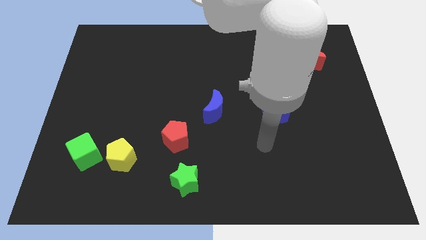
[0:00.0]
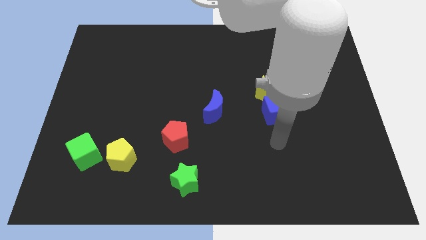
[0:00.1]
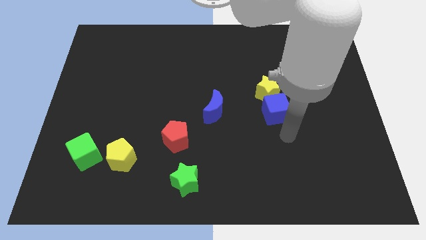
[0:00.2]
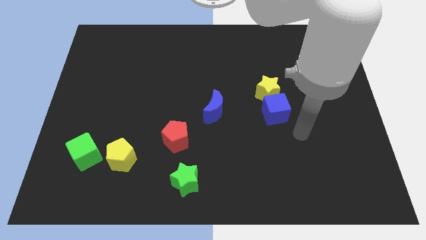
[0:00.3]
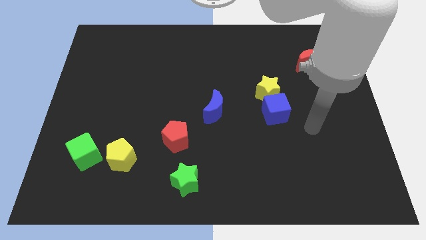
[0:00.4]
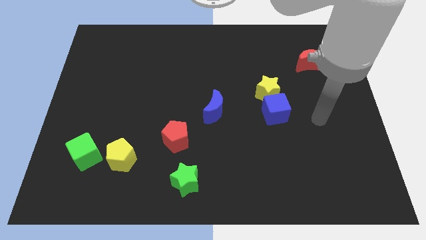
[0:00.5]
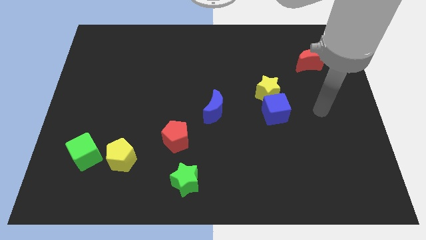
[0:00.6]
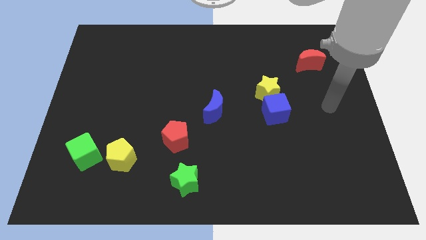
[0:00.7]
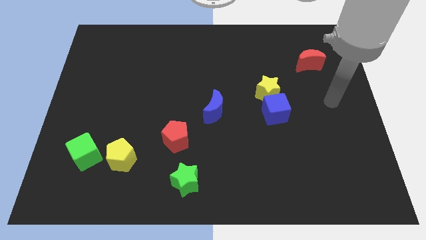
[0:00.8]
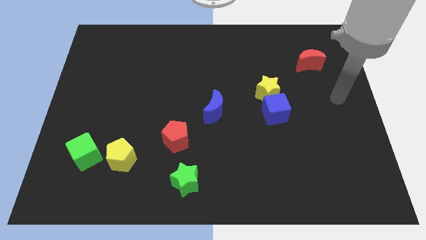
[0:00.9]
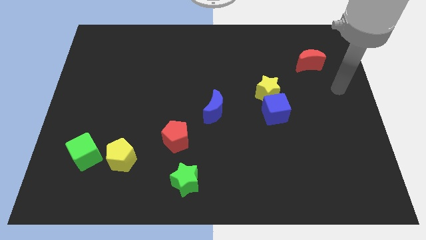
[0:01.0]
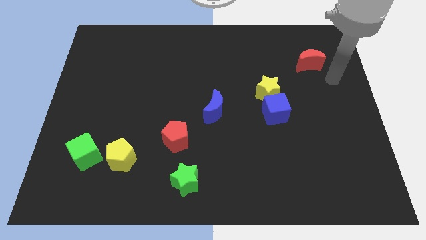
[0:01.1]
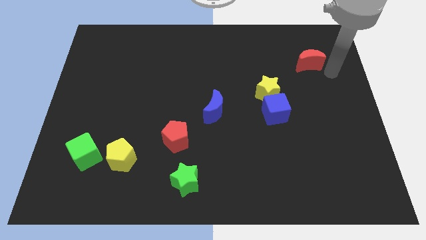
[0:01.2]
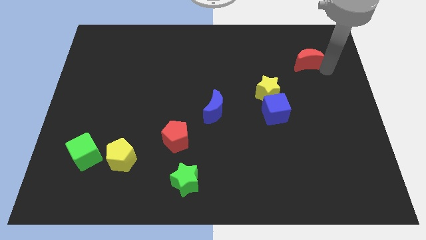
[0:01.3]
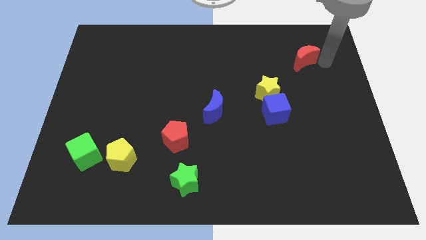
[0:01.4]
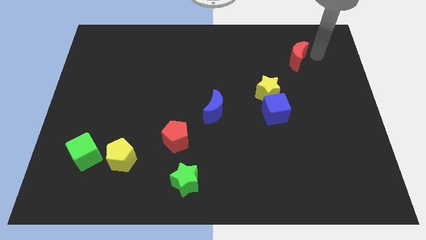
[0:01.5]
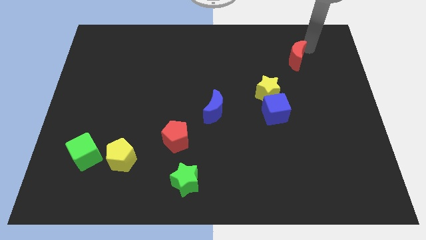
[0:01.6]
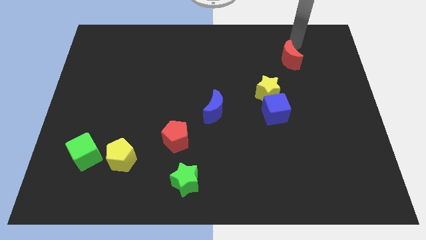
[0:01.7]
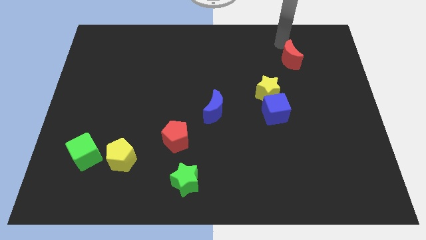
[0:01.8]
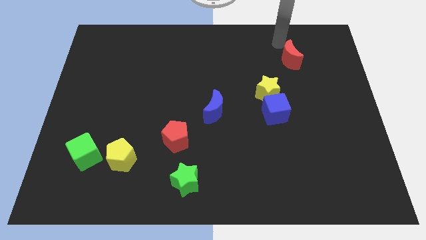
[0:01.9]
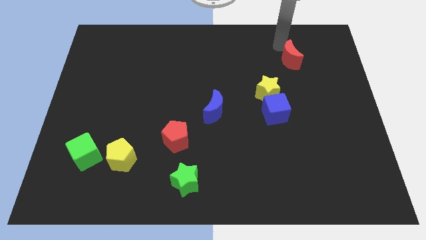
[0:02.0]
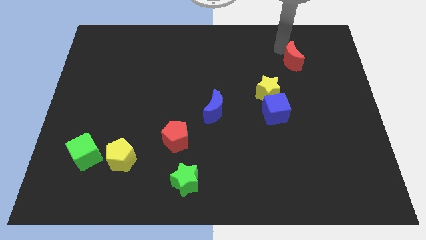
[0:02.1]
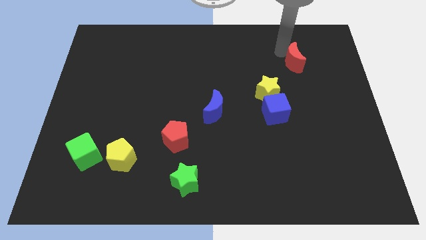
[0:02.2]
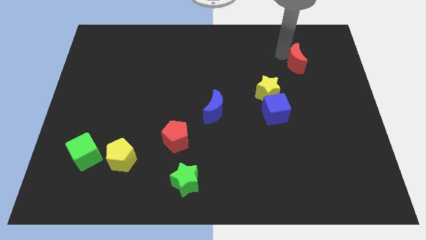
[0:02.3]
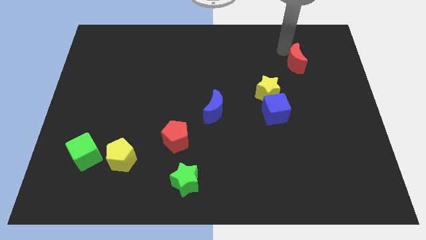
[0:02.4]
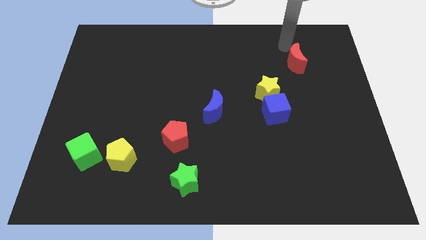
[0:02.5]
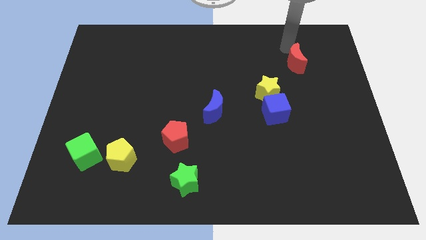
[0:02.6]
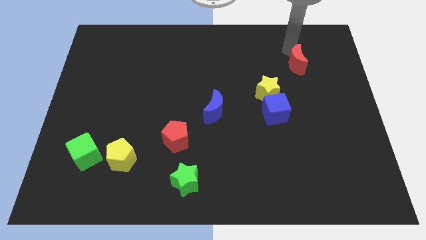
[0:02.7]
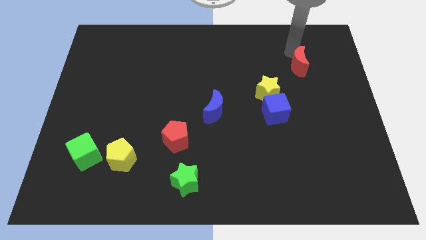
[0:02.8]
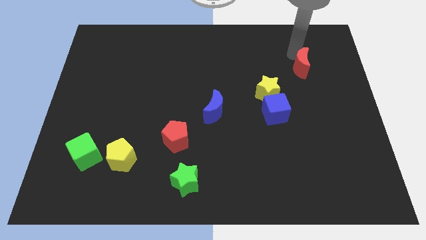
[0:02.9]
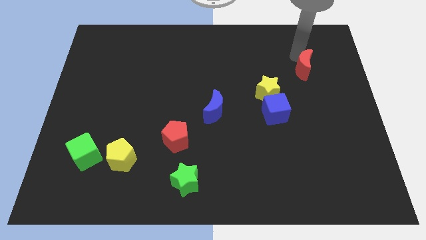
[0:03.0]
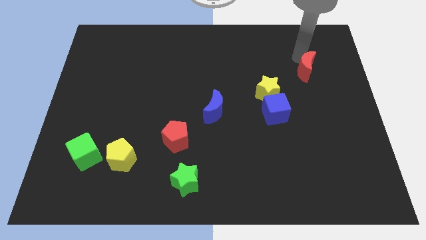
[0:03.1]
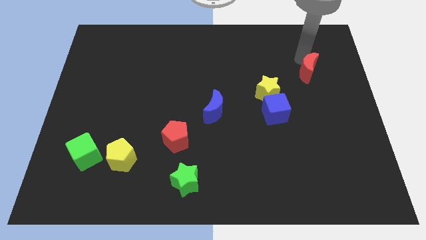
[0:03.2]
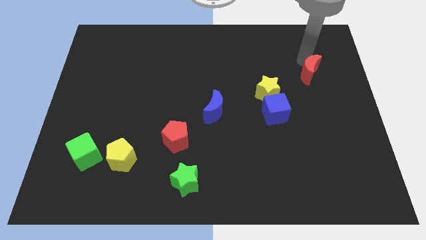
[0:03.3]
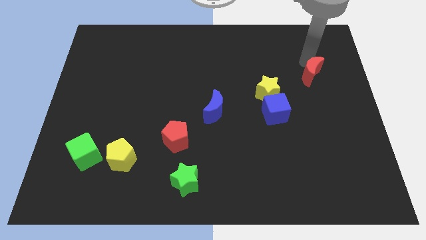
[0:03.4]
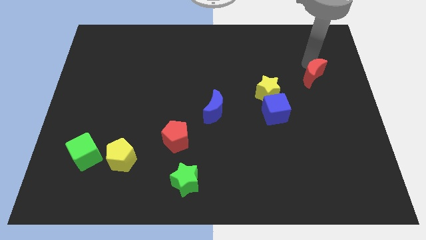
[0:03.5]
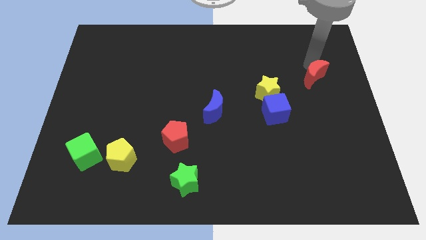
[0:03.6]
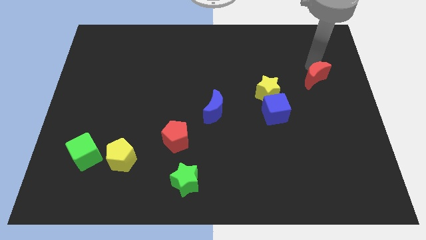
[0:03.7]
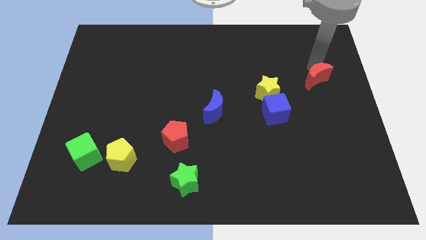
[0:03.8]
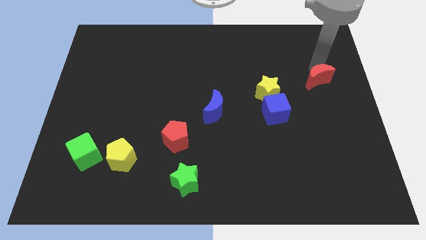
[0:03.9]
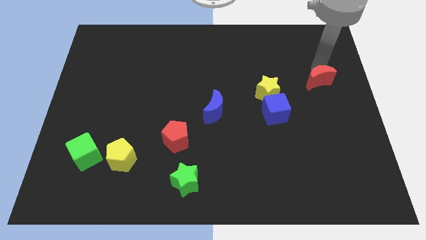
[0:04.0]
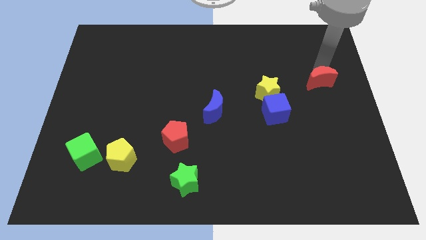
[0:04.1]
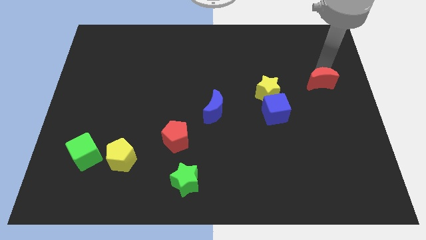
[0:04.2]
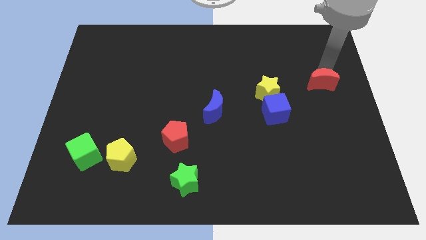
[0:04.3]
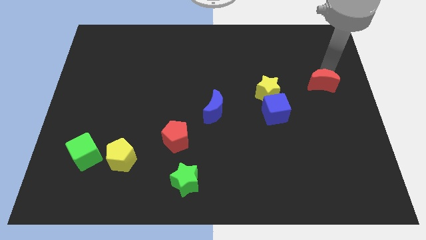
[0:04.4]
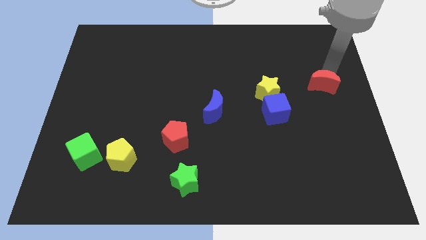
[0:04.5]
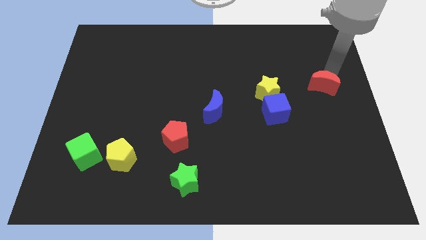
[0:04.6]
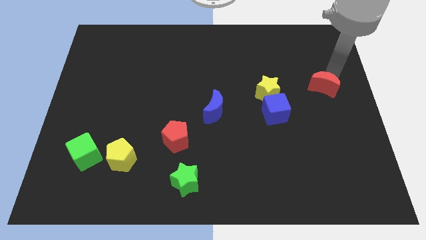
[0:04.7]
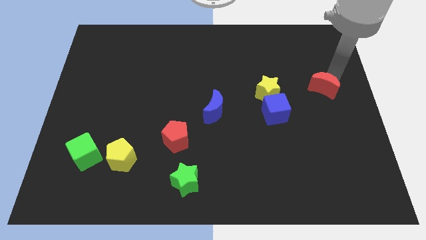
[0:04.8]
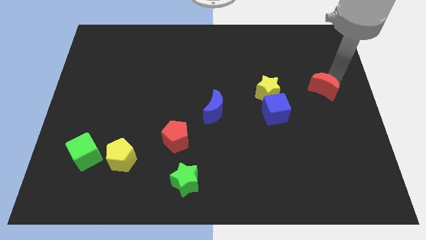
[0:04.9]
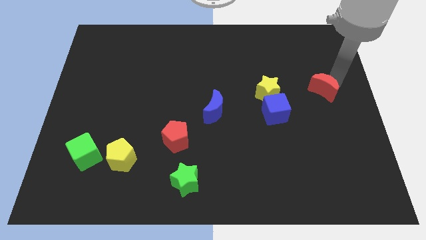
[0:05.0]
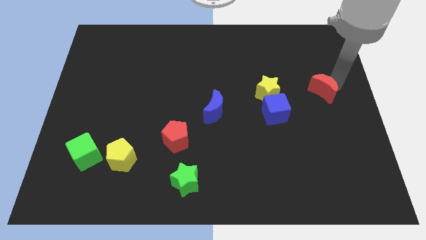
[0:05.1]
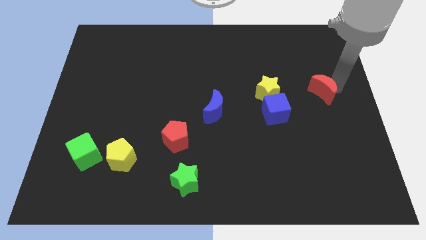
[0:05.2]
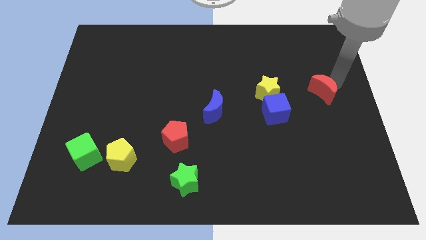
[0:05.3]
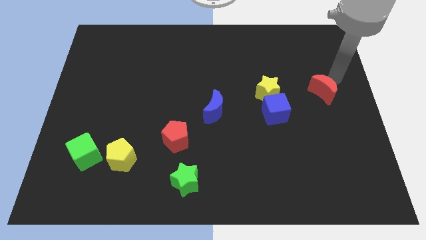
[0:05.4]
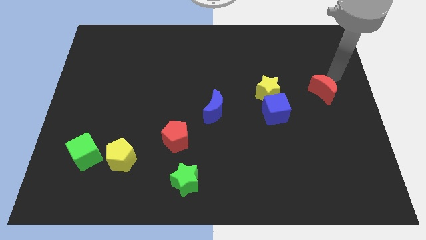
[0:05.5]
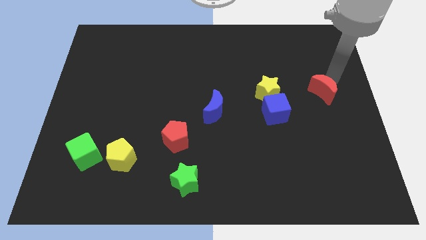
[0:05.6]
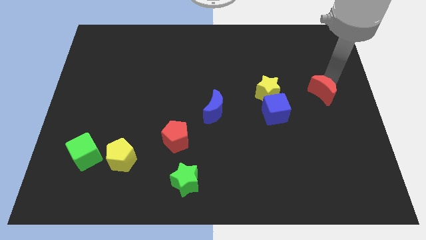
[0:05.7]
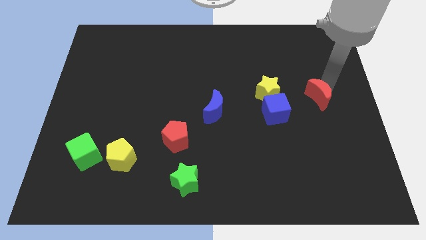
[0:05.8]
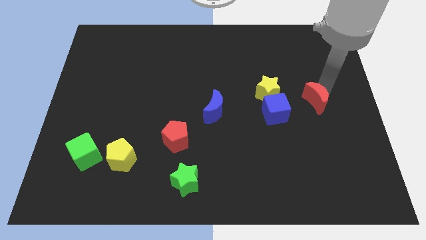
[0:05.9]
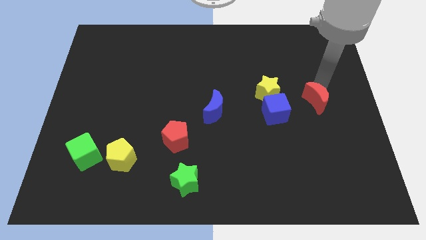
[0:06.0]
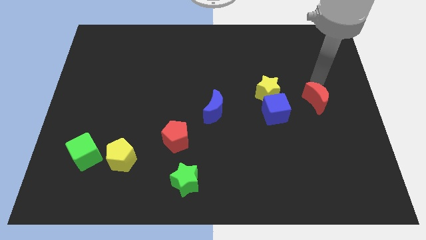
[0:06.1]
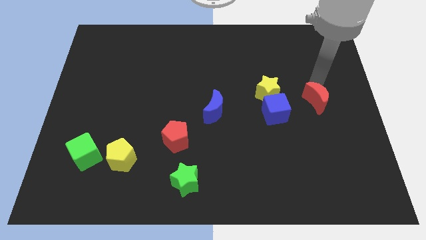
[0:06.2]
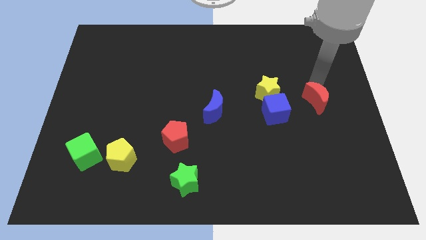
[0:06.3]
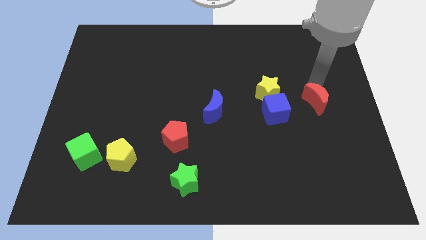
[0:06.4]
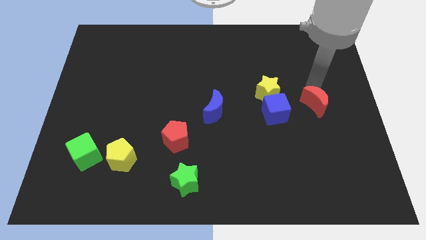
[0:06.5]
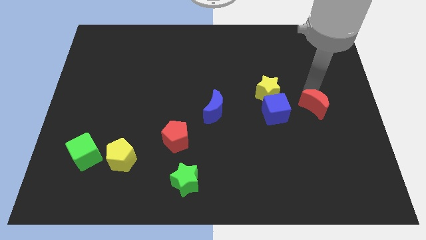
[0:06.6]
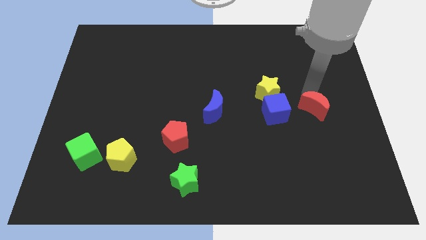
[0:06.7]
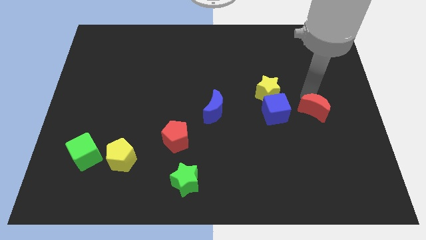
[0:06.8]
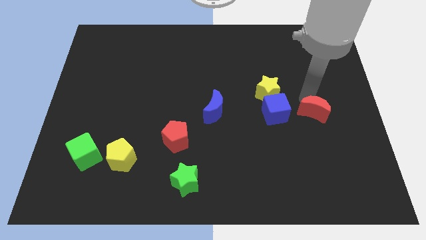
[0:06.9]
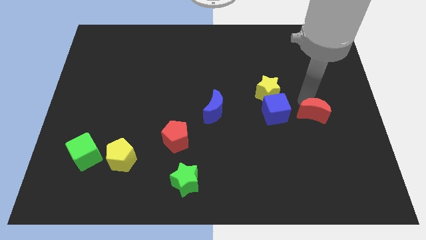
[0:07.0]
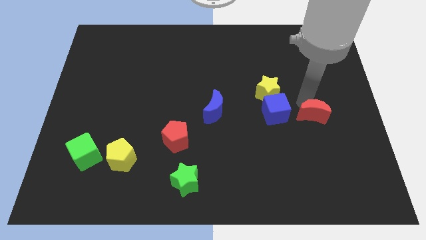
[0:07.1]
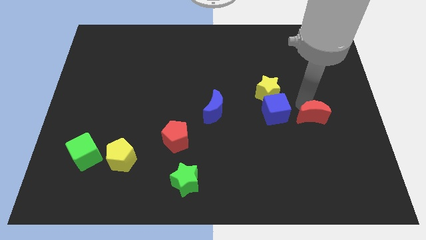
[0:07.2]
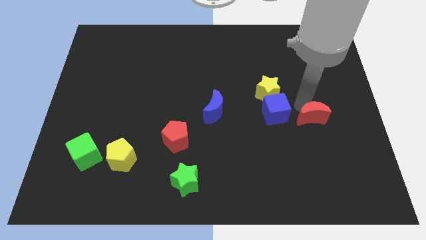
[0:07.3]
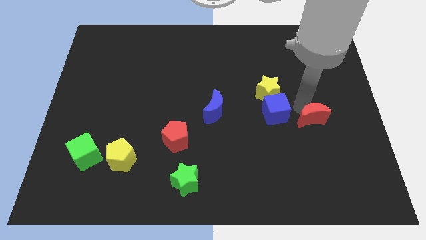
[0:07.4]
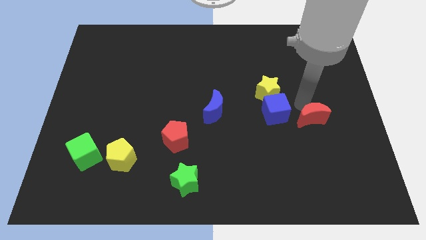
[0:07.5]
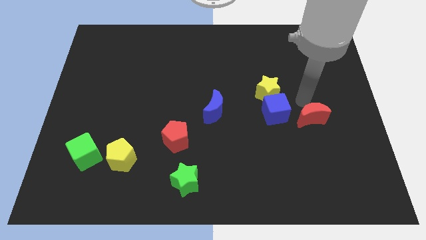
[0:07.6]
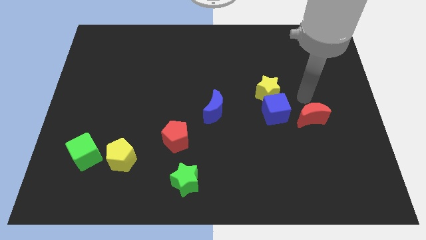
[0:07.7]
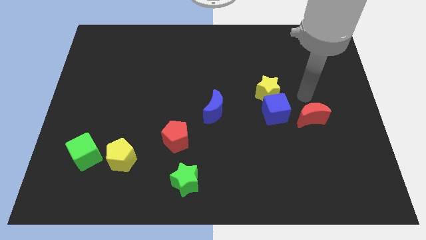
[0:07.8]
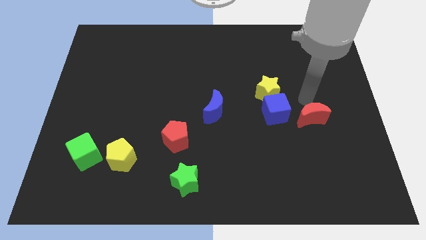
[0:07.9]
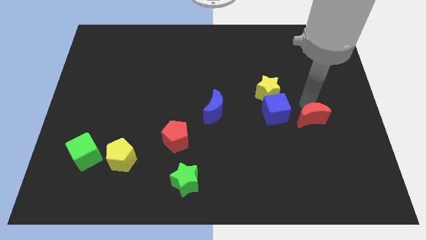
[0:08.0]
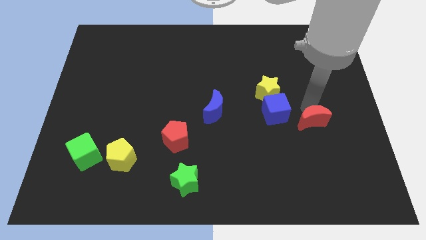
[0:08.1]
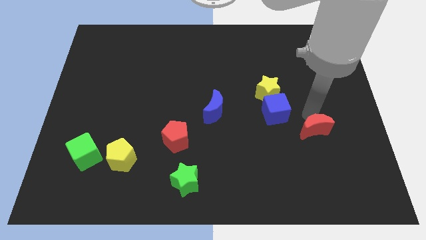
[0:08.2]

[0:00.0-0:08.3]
move the red moon downwards

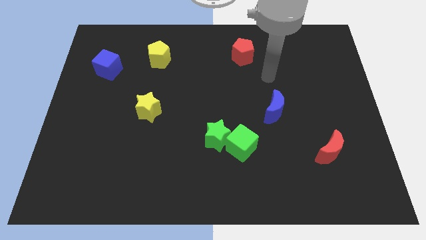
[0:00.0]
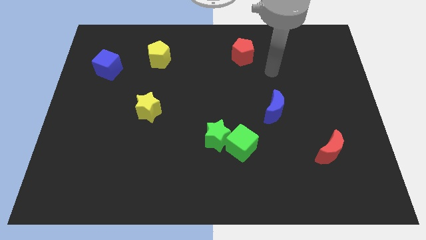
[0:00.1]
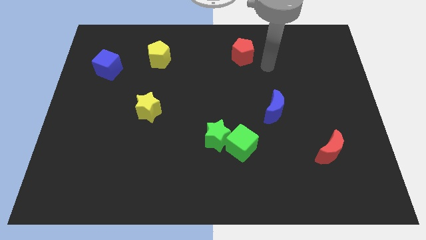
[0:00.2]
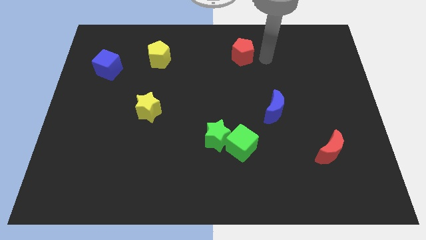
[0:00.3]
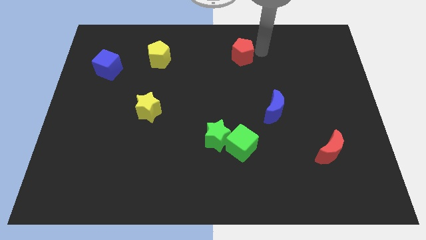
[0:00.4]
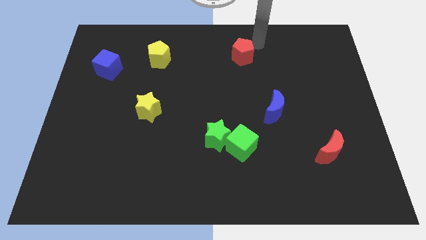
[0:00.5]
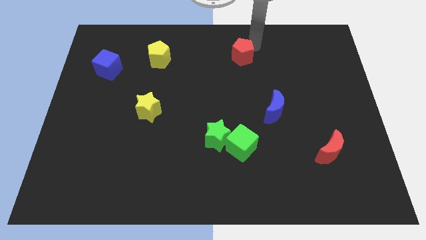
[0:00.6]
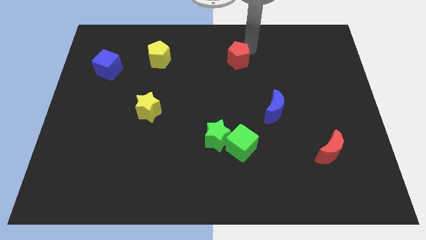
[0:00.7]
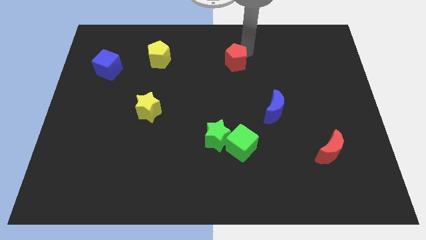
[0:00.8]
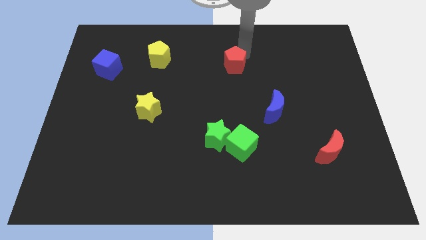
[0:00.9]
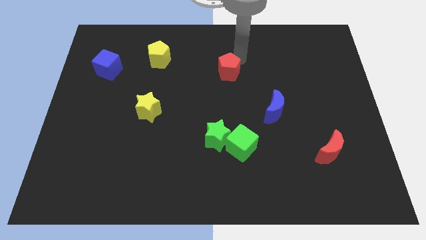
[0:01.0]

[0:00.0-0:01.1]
slightly move the red pentagon down and left
